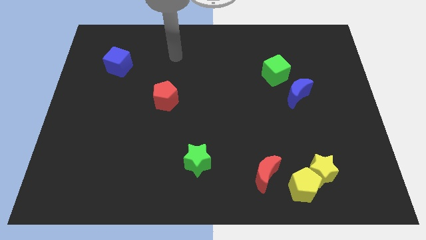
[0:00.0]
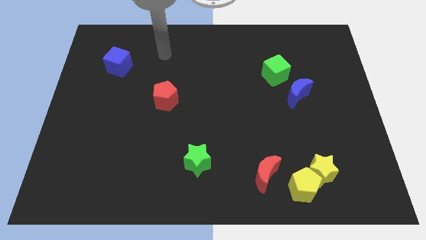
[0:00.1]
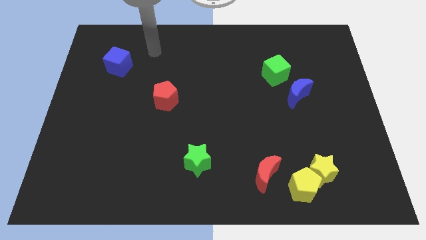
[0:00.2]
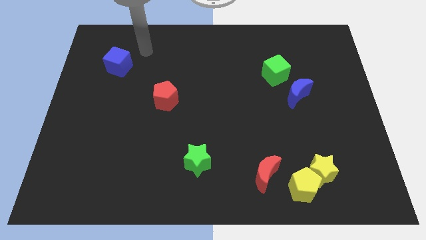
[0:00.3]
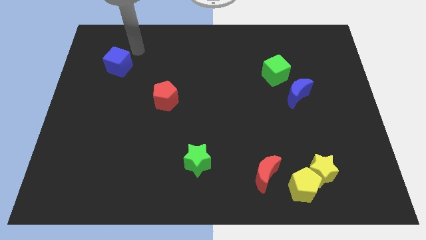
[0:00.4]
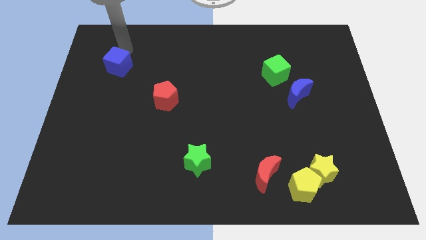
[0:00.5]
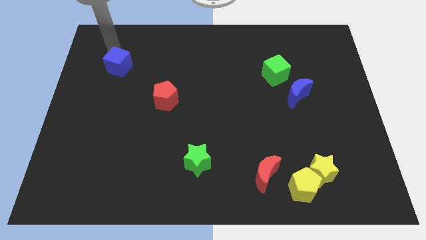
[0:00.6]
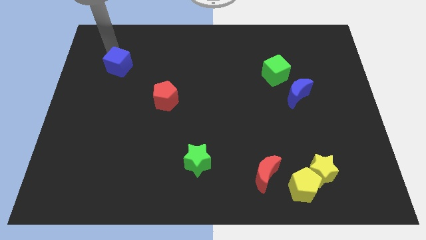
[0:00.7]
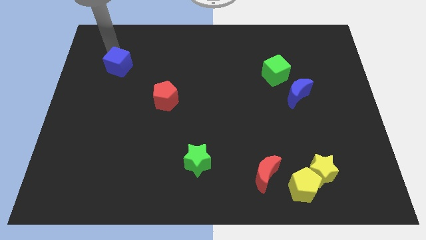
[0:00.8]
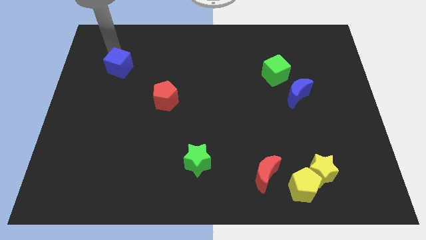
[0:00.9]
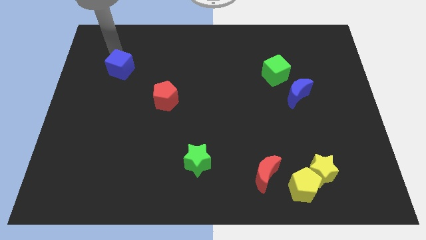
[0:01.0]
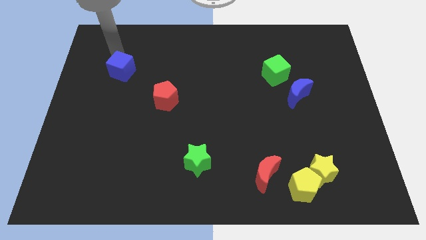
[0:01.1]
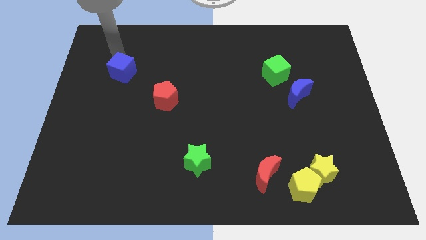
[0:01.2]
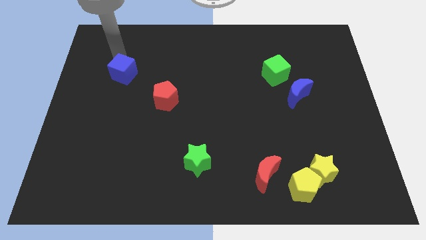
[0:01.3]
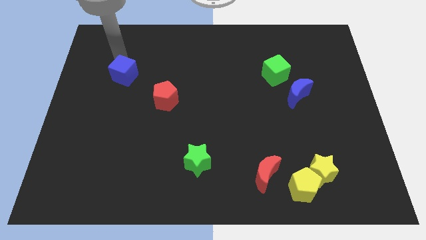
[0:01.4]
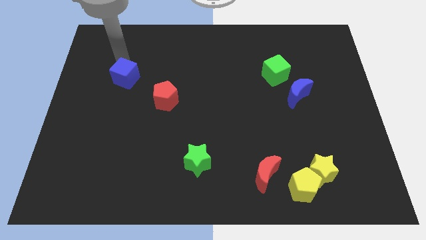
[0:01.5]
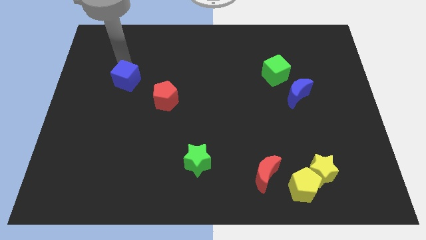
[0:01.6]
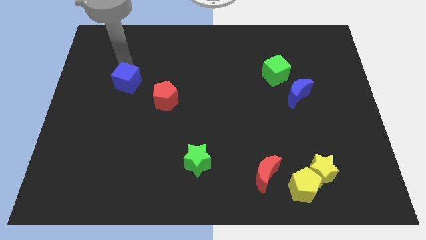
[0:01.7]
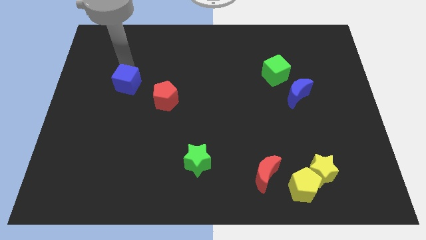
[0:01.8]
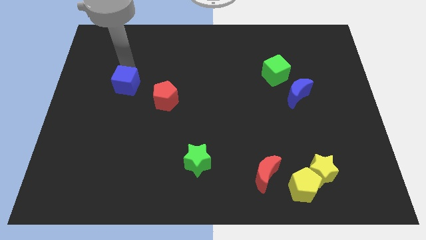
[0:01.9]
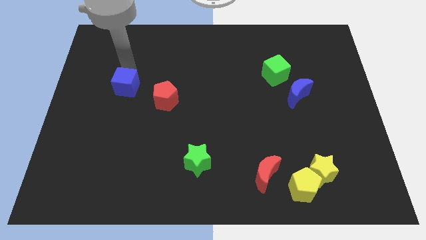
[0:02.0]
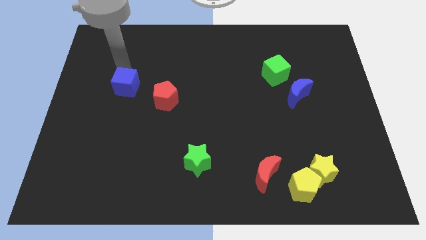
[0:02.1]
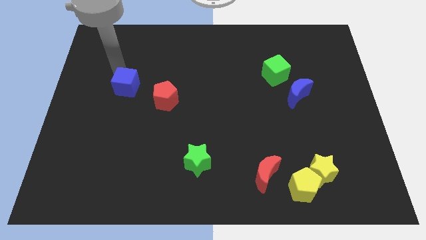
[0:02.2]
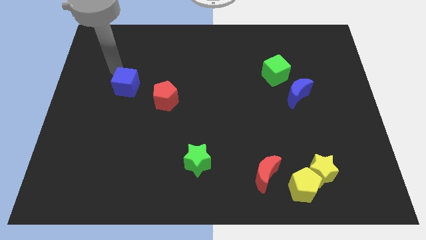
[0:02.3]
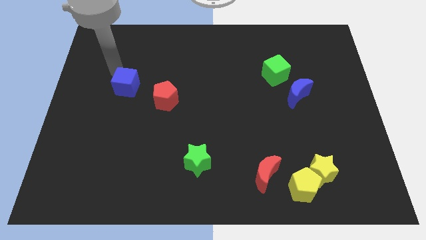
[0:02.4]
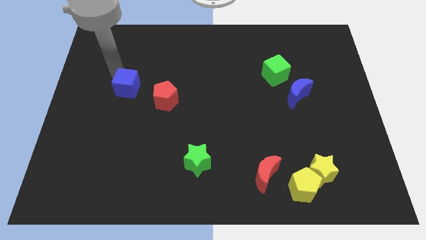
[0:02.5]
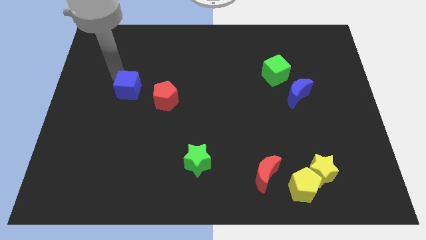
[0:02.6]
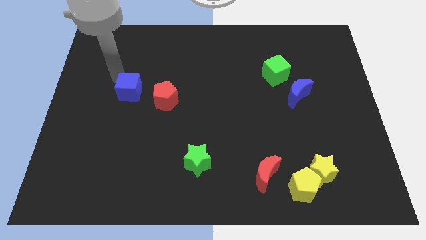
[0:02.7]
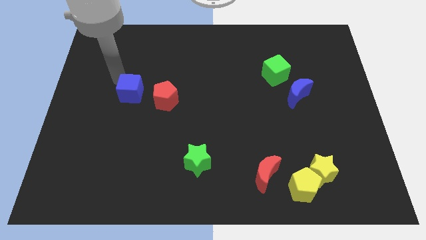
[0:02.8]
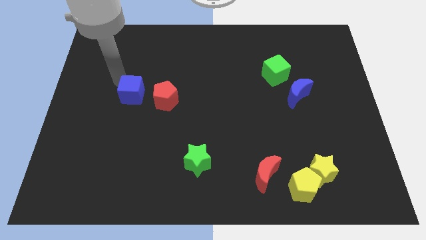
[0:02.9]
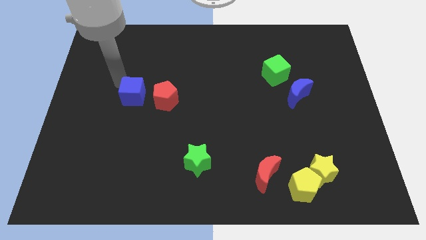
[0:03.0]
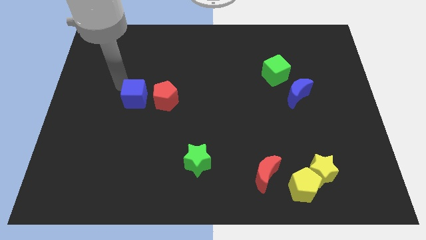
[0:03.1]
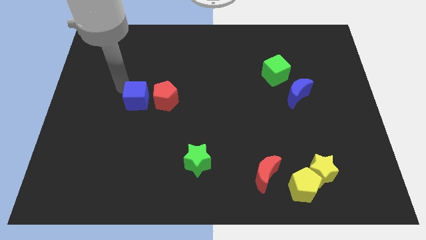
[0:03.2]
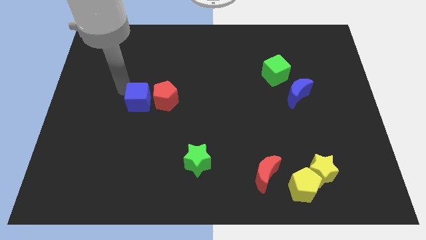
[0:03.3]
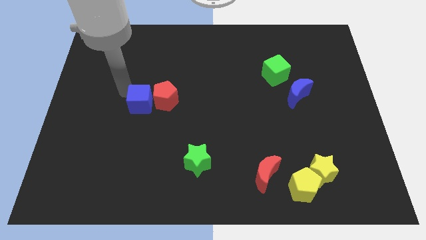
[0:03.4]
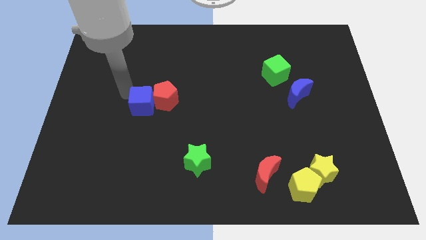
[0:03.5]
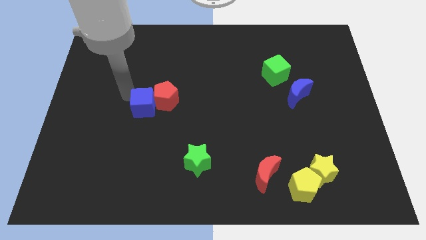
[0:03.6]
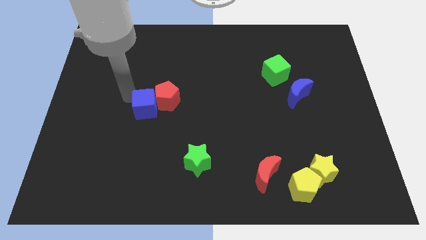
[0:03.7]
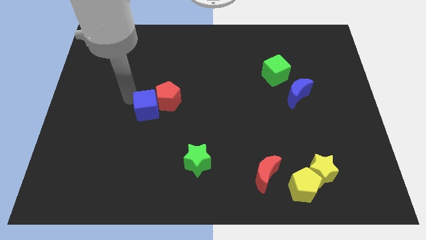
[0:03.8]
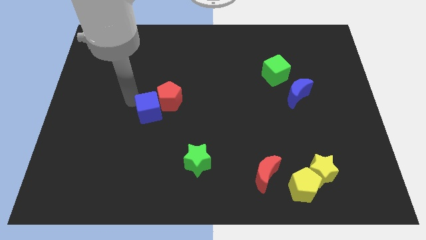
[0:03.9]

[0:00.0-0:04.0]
put the blue cube to the bottom of the red pentagon

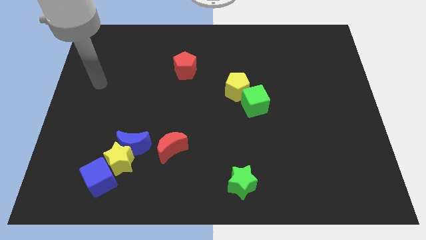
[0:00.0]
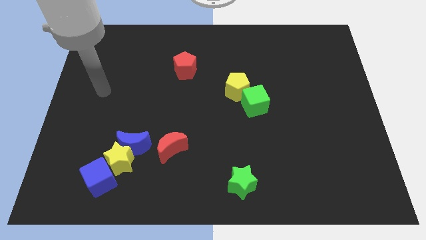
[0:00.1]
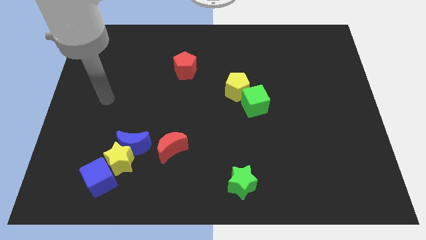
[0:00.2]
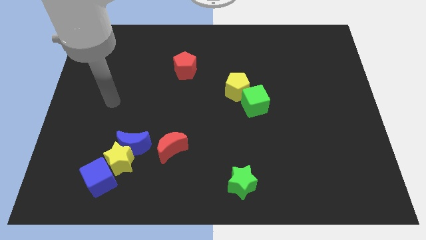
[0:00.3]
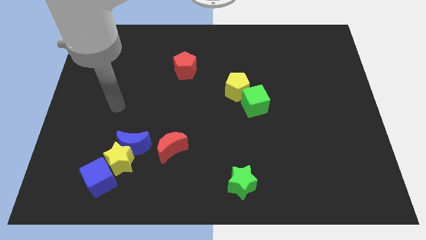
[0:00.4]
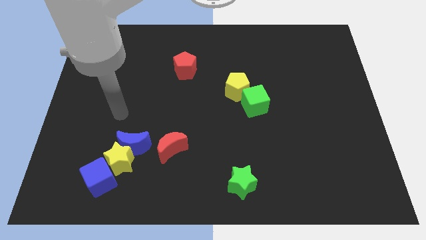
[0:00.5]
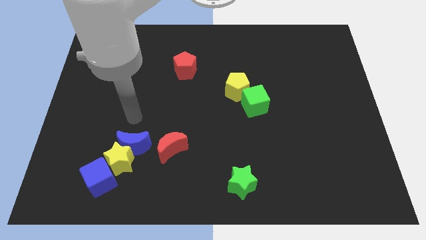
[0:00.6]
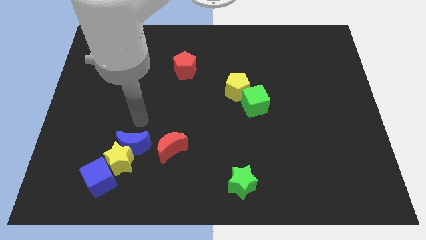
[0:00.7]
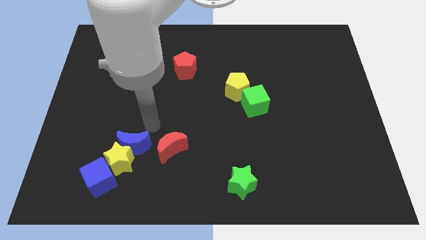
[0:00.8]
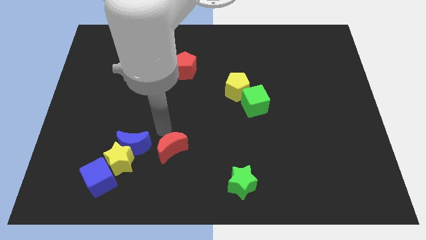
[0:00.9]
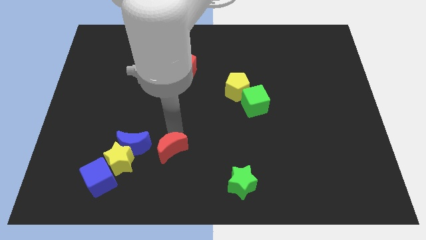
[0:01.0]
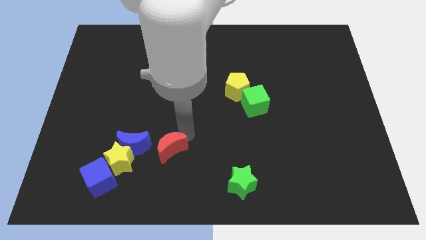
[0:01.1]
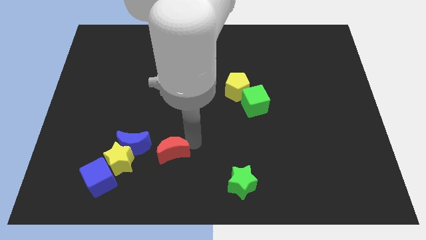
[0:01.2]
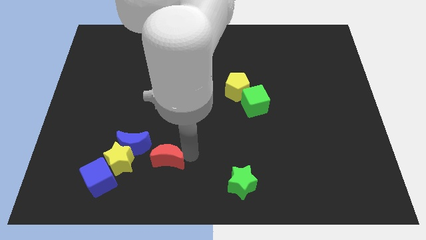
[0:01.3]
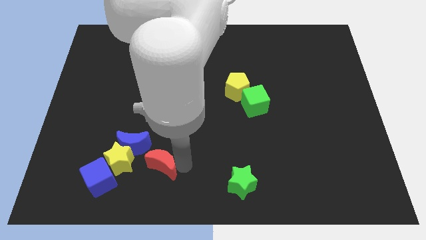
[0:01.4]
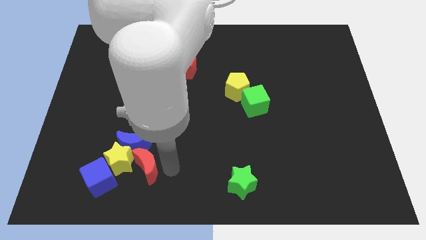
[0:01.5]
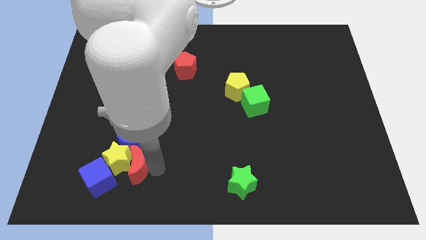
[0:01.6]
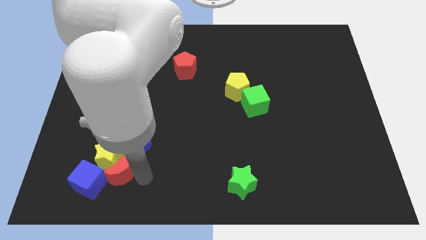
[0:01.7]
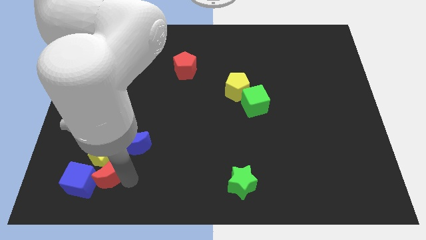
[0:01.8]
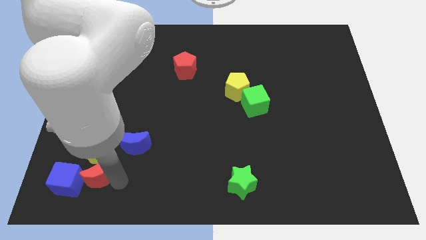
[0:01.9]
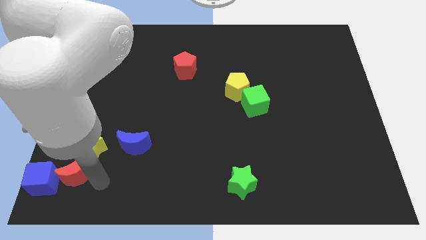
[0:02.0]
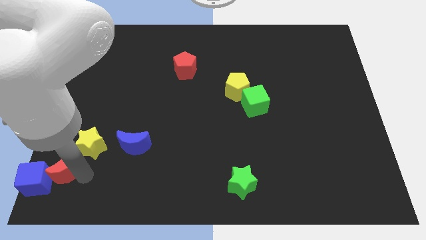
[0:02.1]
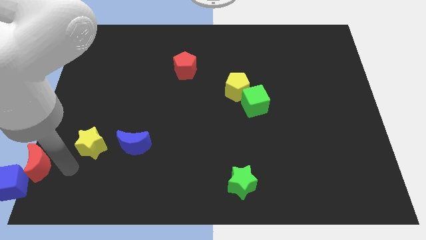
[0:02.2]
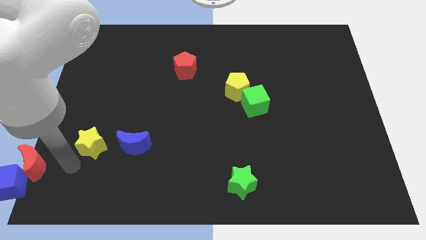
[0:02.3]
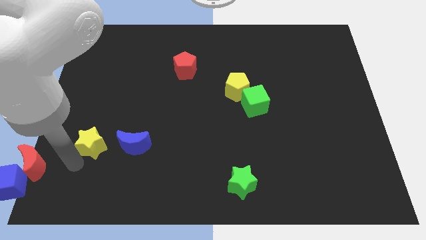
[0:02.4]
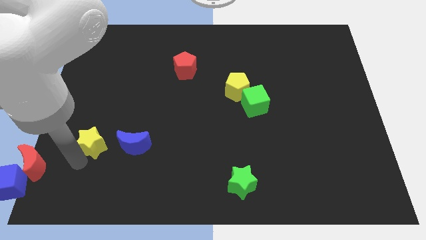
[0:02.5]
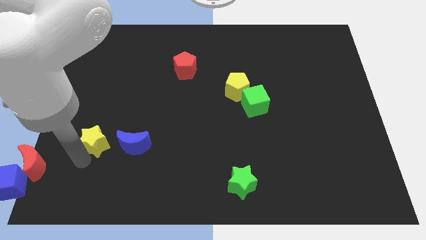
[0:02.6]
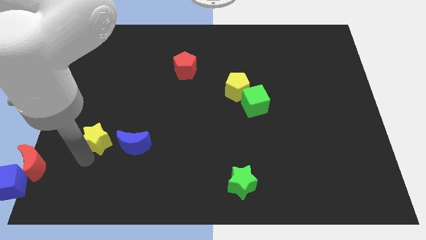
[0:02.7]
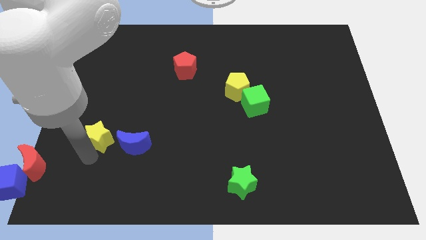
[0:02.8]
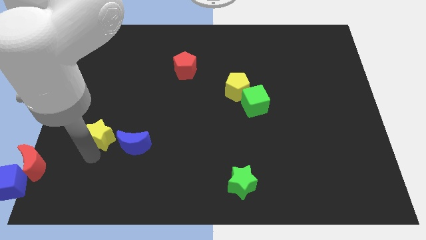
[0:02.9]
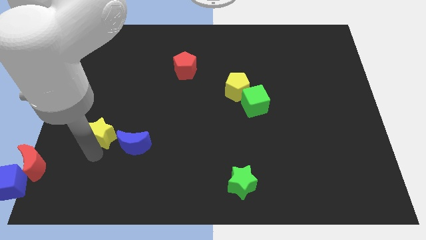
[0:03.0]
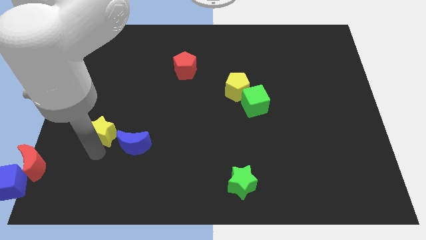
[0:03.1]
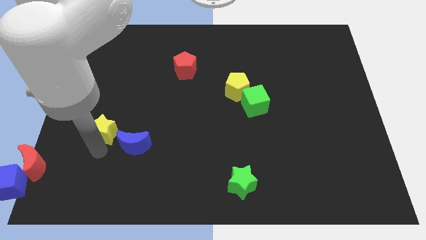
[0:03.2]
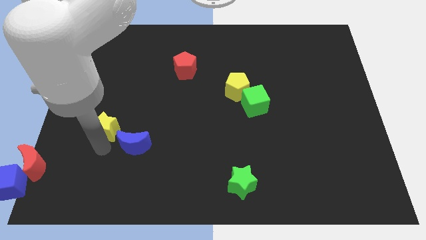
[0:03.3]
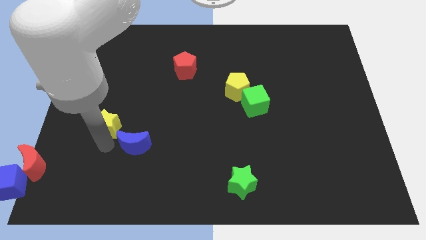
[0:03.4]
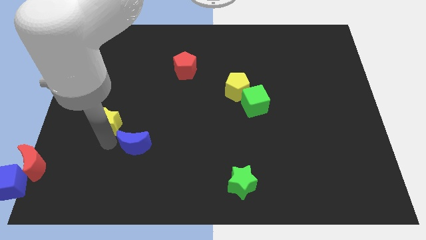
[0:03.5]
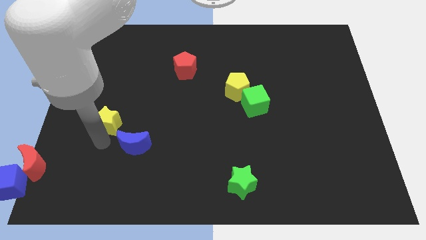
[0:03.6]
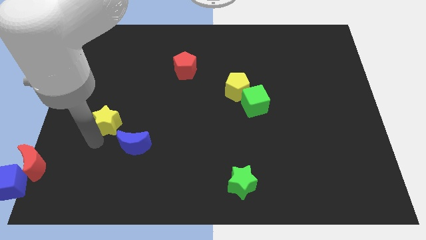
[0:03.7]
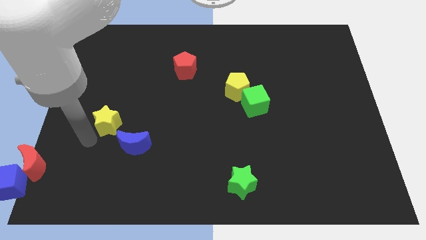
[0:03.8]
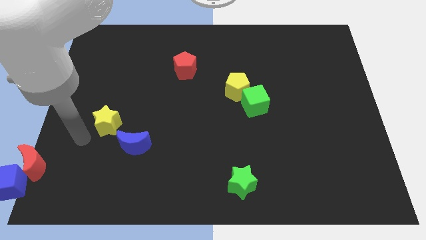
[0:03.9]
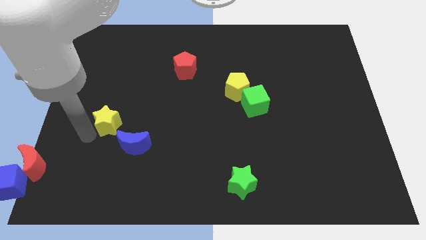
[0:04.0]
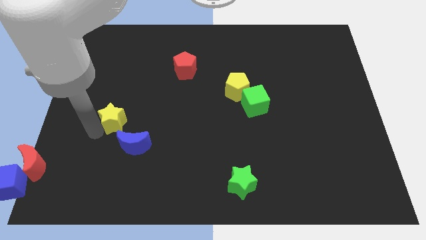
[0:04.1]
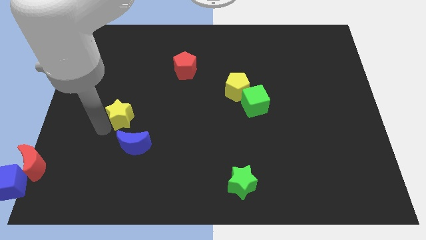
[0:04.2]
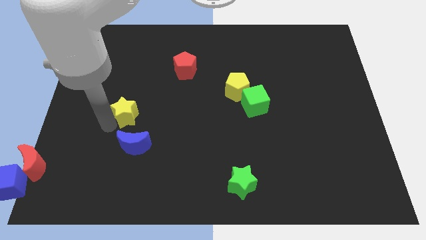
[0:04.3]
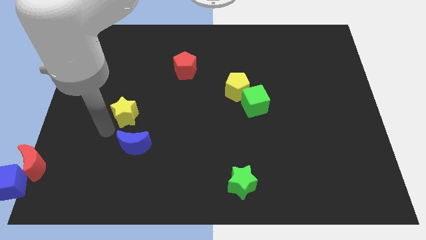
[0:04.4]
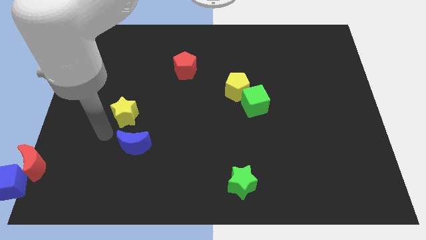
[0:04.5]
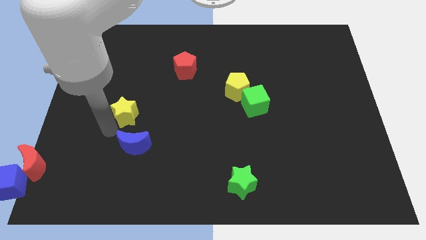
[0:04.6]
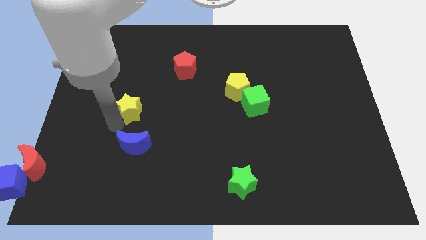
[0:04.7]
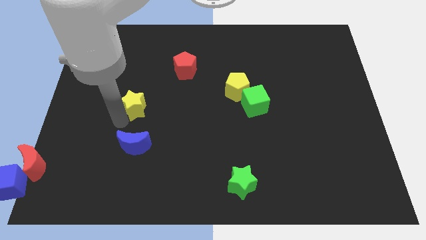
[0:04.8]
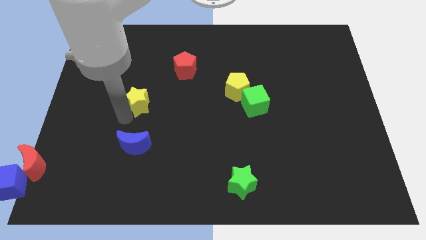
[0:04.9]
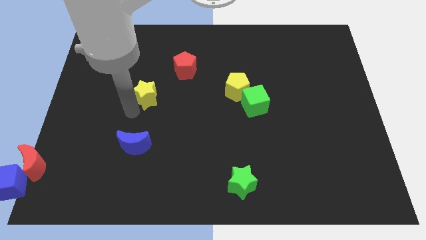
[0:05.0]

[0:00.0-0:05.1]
push the yellow star to the bottom left side of the red pentagon
